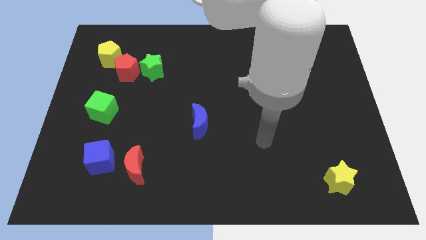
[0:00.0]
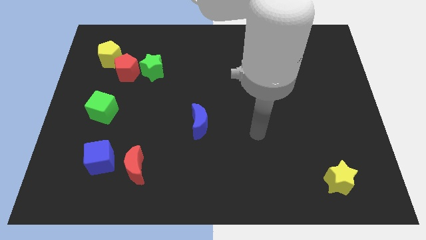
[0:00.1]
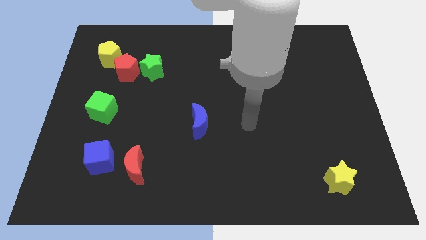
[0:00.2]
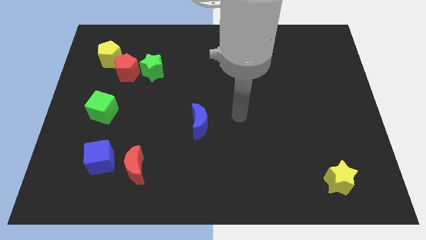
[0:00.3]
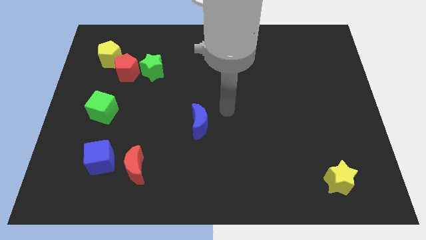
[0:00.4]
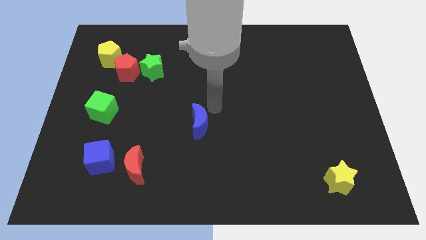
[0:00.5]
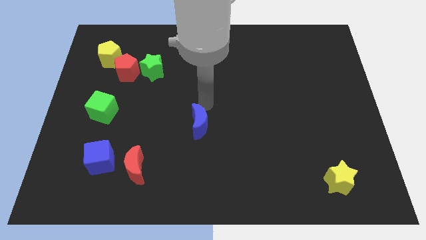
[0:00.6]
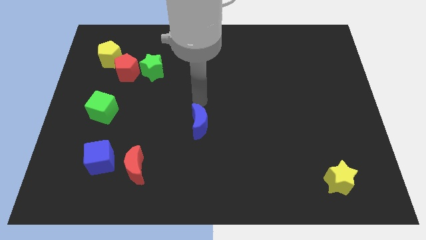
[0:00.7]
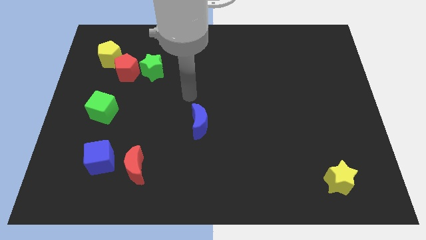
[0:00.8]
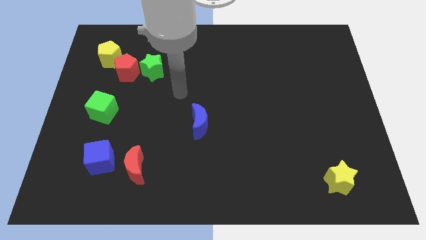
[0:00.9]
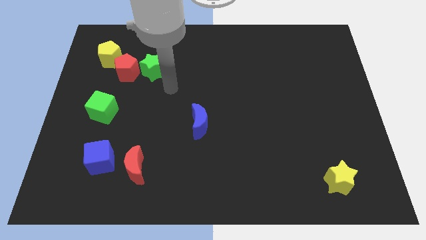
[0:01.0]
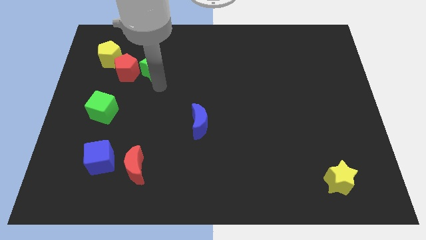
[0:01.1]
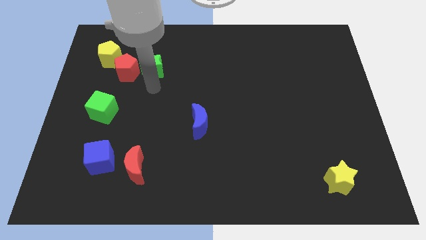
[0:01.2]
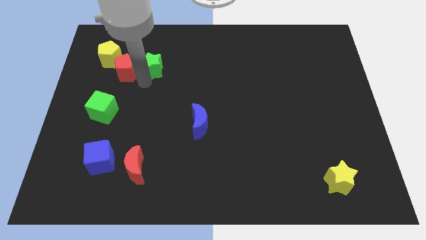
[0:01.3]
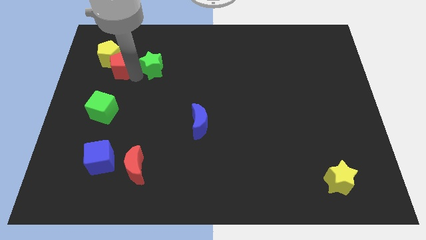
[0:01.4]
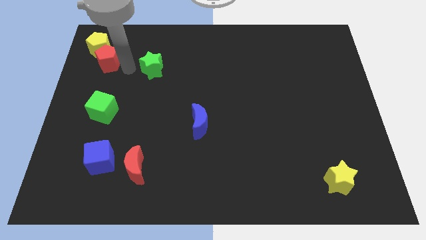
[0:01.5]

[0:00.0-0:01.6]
separate the green star from the red pentagon

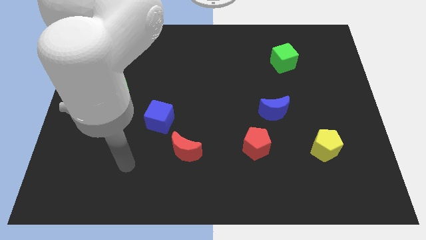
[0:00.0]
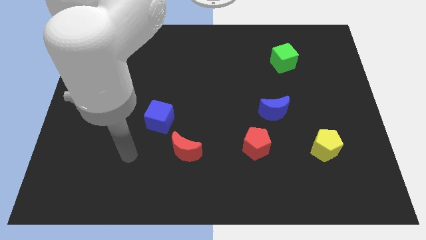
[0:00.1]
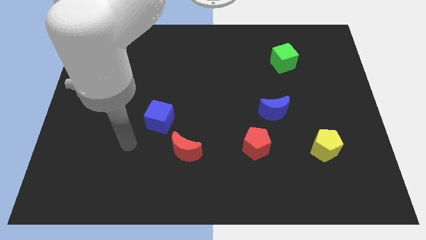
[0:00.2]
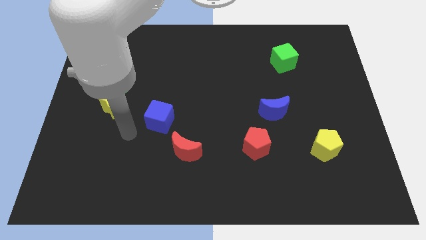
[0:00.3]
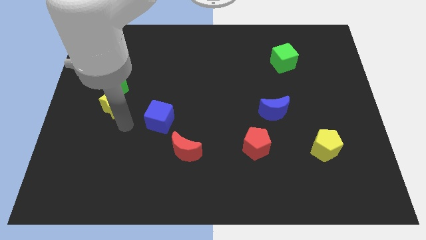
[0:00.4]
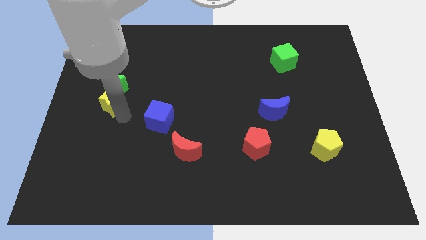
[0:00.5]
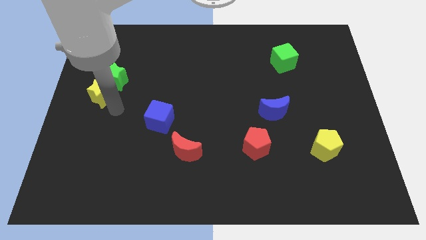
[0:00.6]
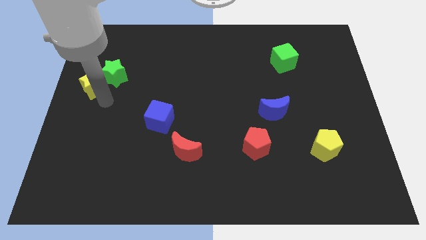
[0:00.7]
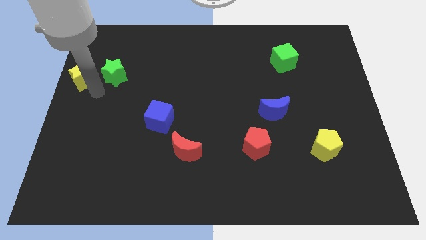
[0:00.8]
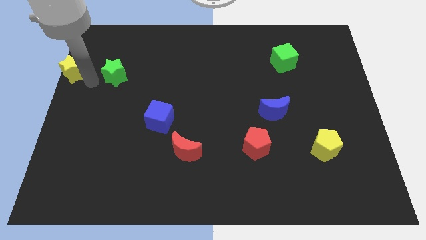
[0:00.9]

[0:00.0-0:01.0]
separate the green star from the yellow star

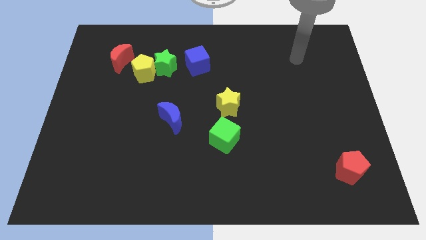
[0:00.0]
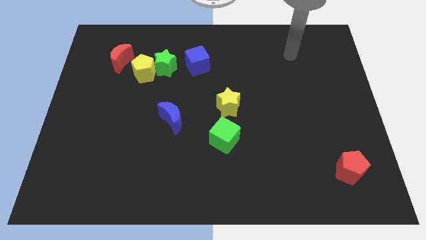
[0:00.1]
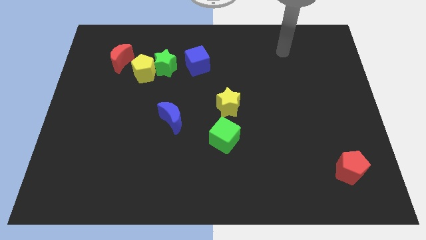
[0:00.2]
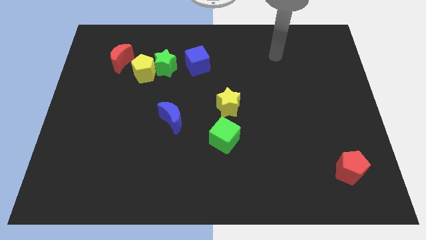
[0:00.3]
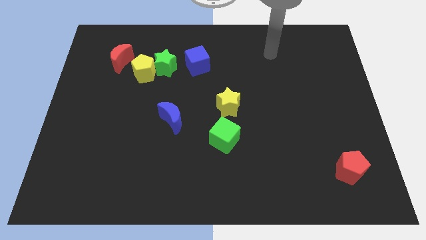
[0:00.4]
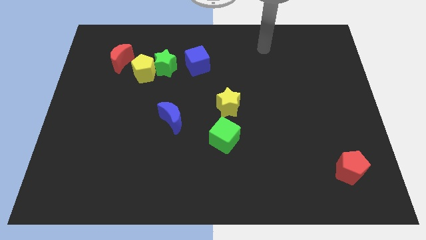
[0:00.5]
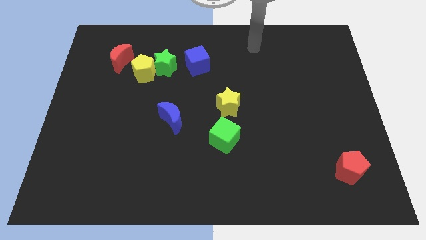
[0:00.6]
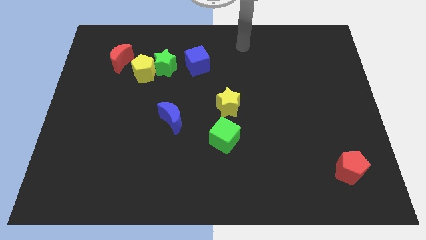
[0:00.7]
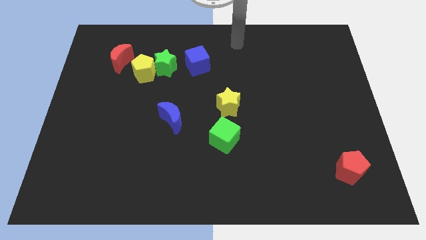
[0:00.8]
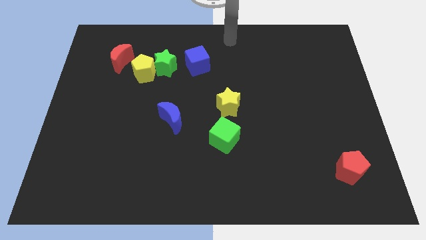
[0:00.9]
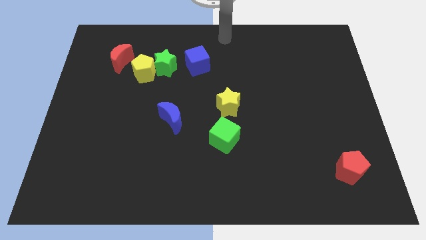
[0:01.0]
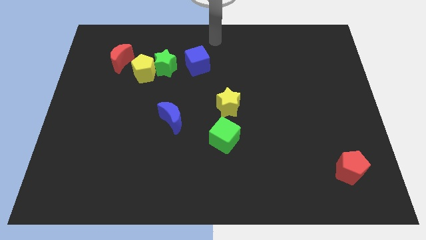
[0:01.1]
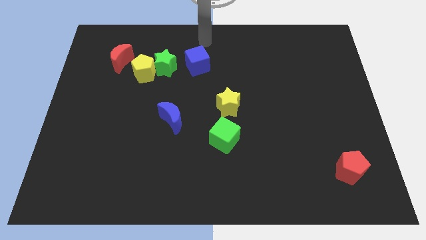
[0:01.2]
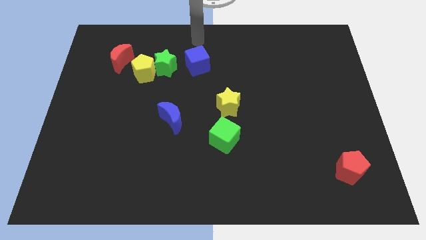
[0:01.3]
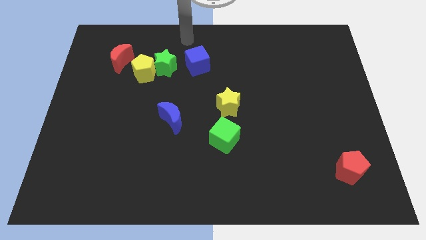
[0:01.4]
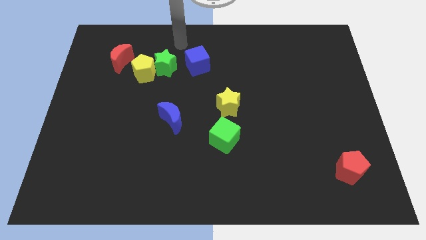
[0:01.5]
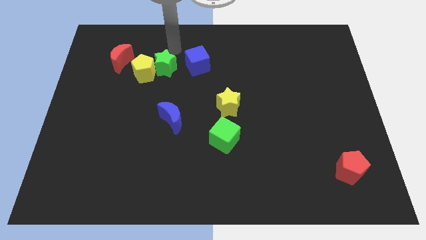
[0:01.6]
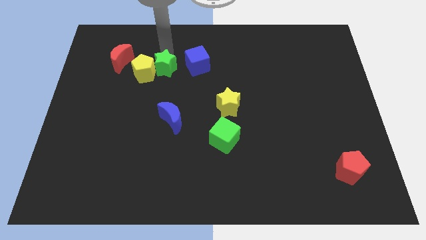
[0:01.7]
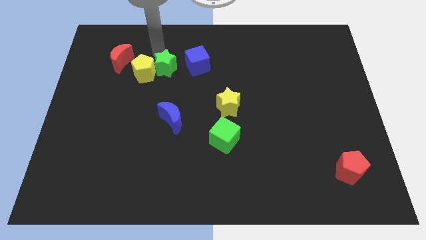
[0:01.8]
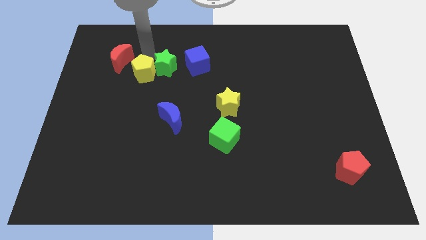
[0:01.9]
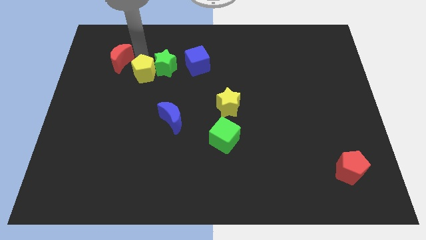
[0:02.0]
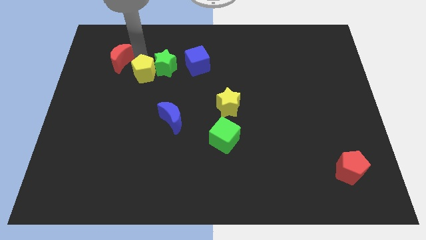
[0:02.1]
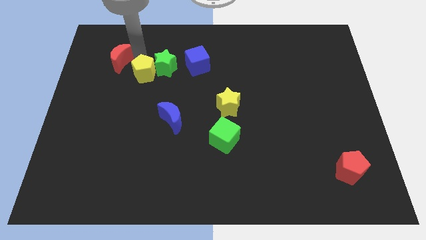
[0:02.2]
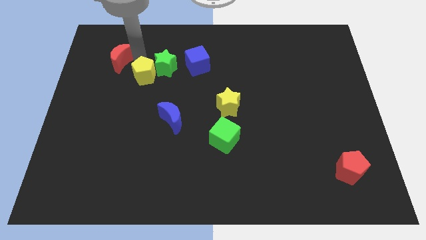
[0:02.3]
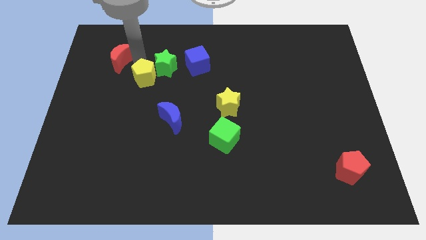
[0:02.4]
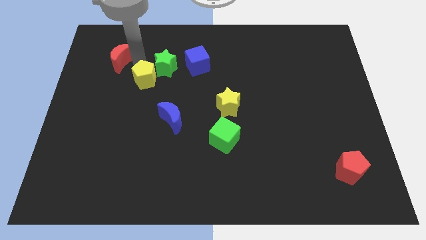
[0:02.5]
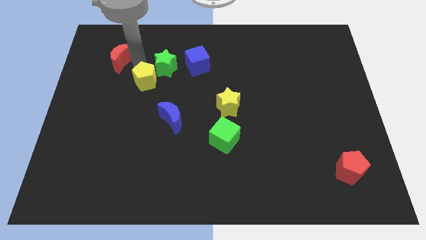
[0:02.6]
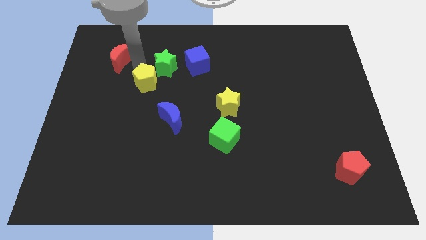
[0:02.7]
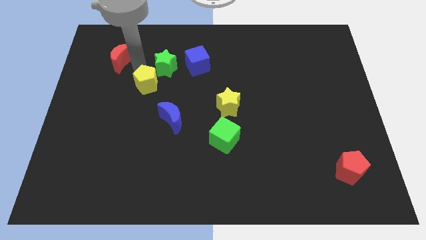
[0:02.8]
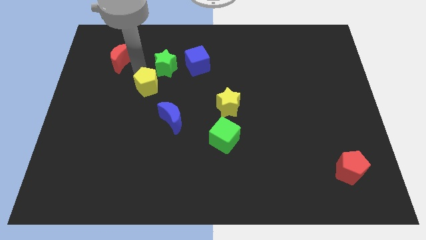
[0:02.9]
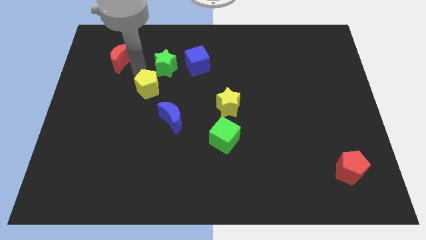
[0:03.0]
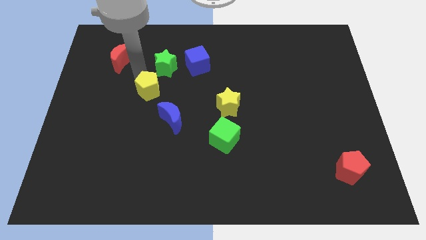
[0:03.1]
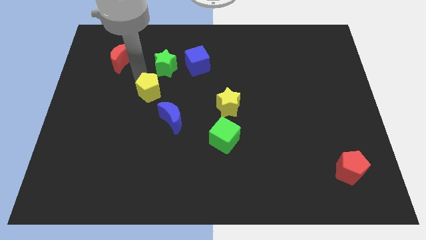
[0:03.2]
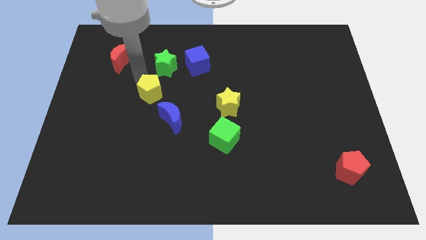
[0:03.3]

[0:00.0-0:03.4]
move the yellow pentagon away from the green star and red moon

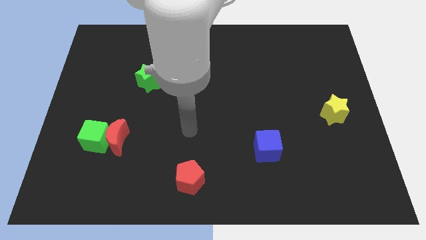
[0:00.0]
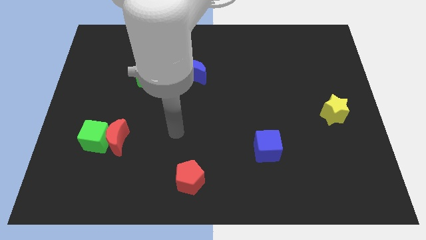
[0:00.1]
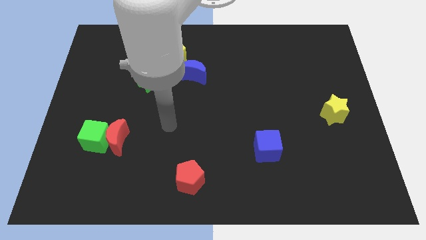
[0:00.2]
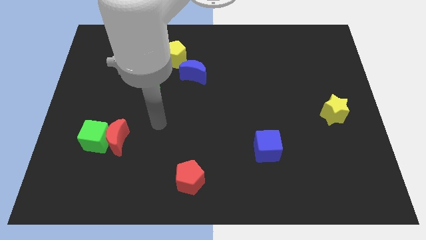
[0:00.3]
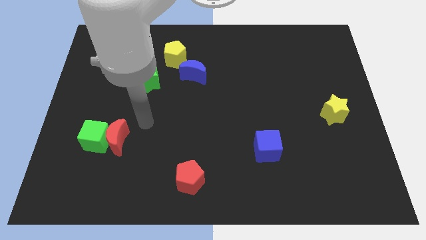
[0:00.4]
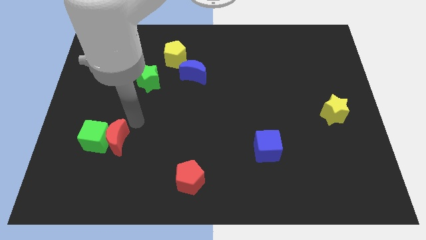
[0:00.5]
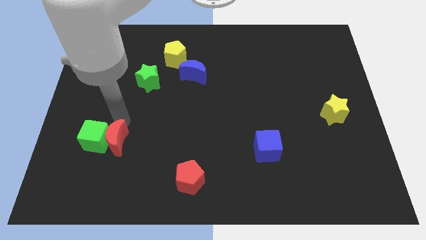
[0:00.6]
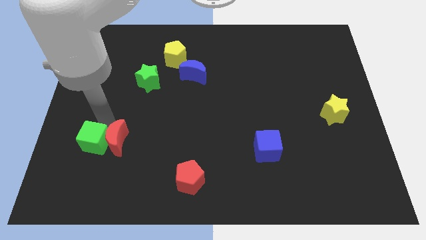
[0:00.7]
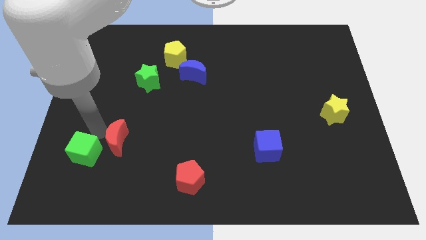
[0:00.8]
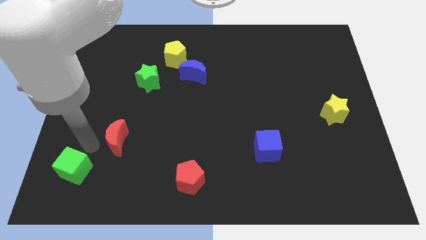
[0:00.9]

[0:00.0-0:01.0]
separate the red moon from the green cube

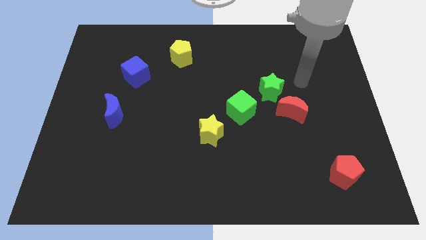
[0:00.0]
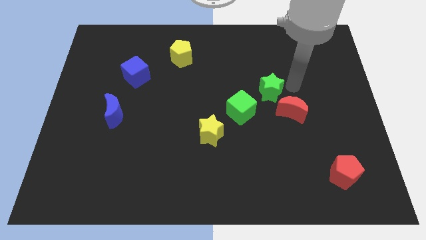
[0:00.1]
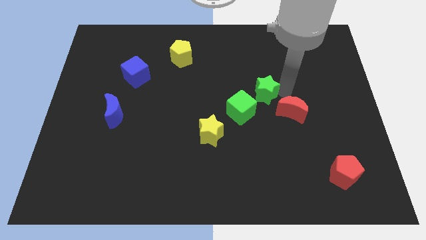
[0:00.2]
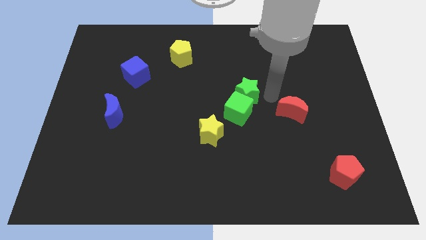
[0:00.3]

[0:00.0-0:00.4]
move the red moon away from the green star

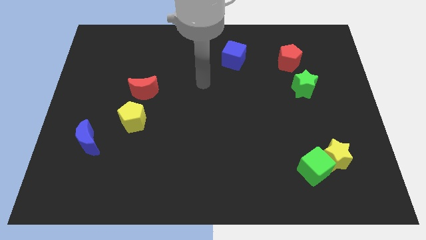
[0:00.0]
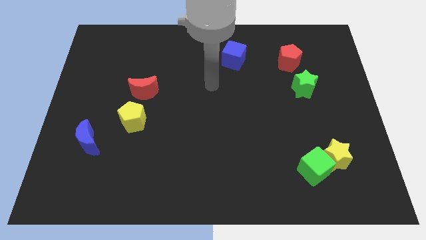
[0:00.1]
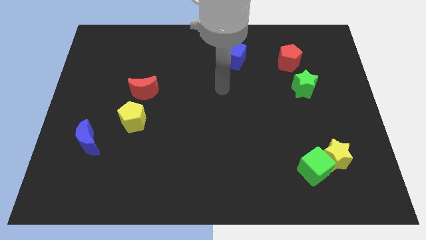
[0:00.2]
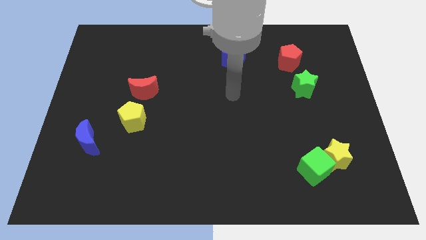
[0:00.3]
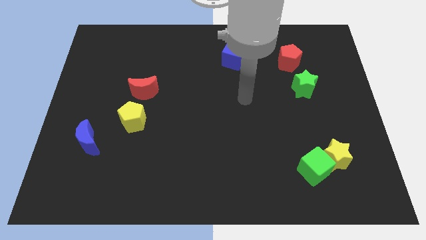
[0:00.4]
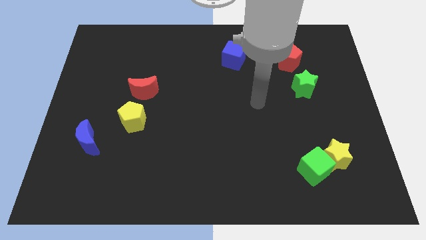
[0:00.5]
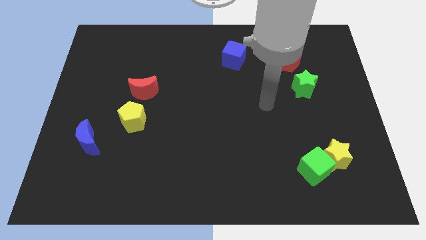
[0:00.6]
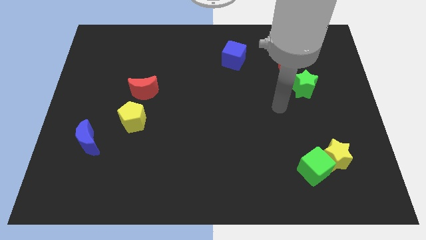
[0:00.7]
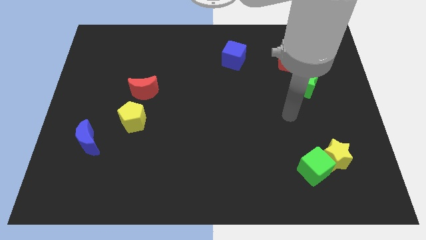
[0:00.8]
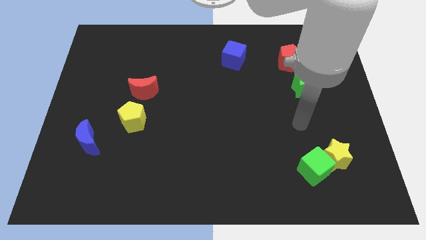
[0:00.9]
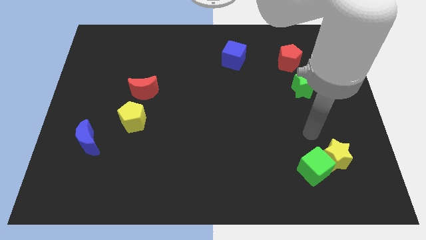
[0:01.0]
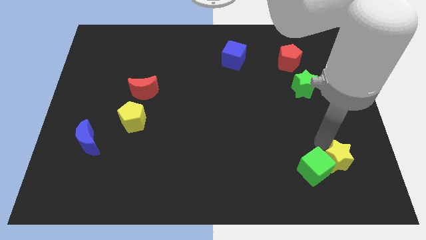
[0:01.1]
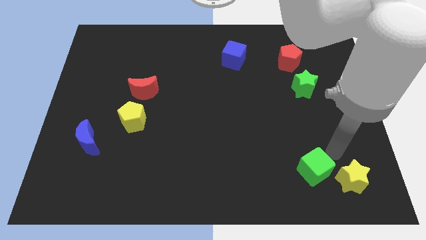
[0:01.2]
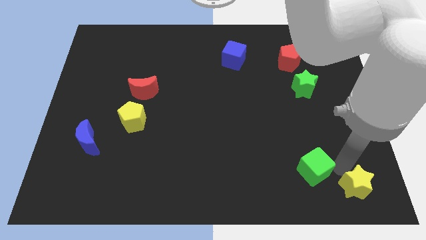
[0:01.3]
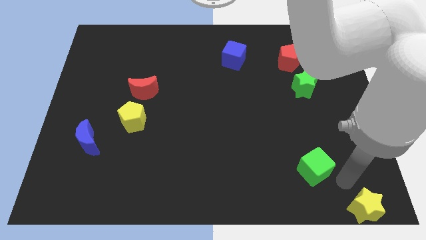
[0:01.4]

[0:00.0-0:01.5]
pull the green cube apart from the yellow star

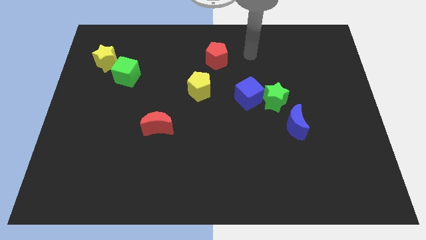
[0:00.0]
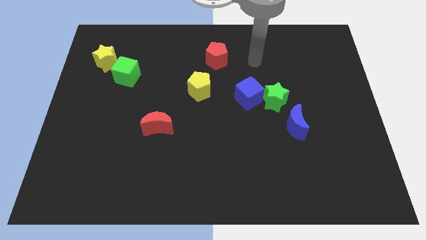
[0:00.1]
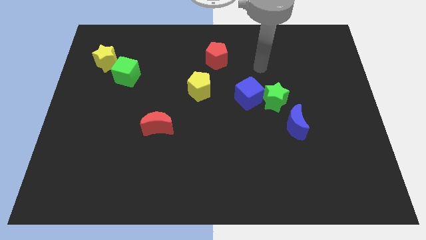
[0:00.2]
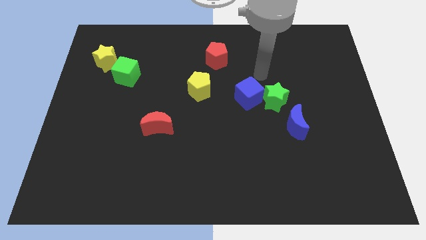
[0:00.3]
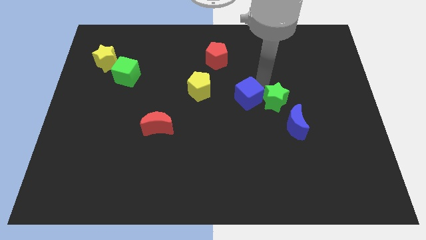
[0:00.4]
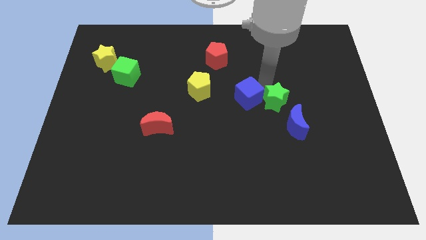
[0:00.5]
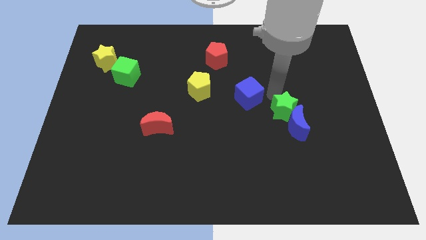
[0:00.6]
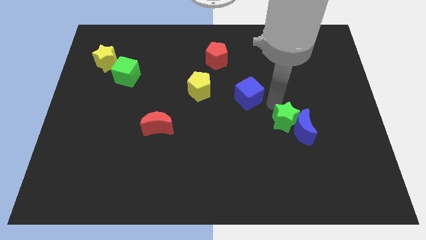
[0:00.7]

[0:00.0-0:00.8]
separate the blue cube from the green star
